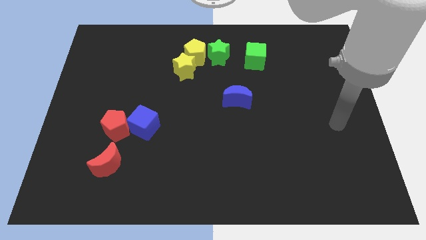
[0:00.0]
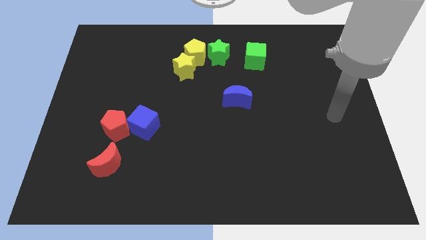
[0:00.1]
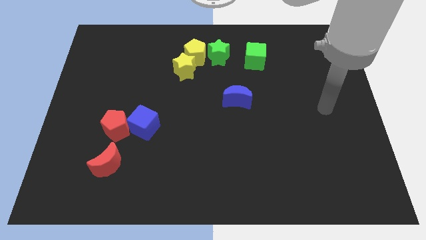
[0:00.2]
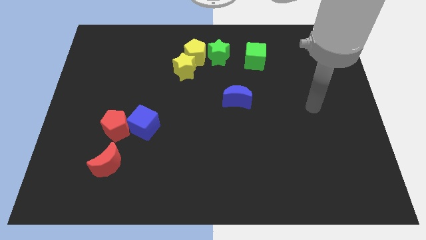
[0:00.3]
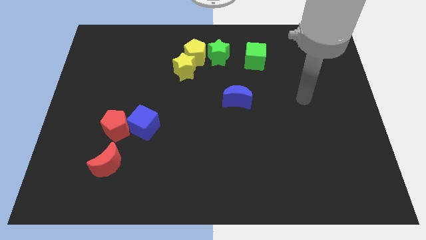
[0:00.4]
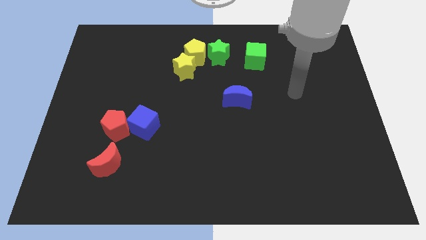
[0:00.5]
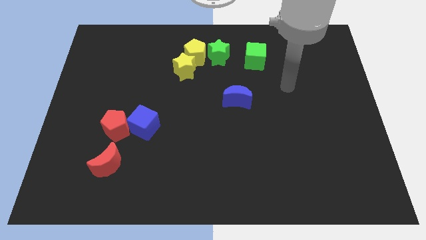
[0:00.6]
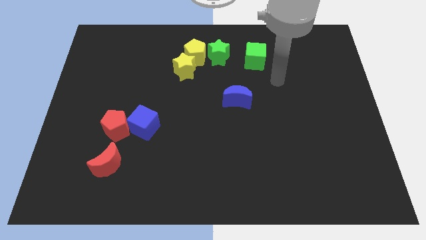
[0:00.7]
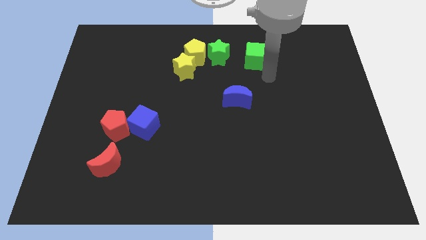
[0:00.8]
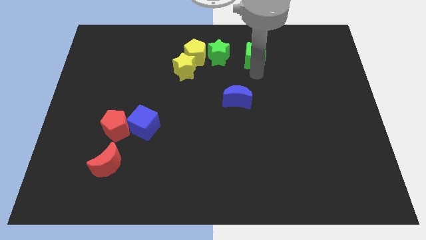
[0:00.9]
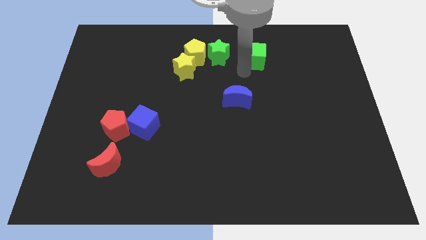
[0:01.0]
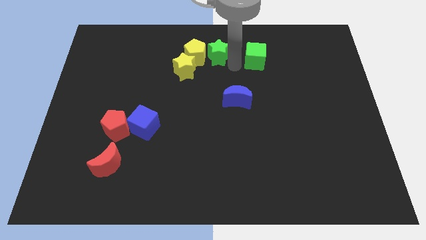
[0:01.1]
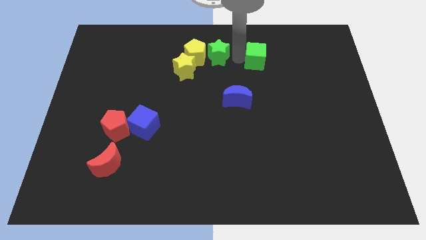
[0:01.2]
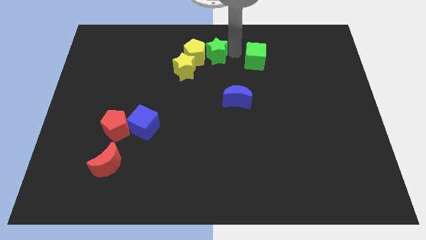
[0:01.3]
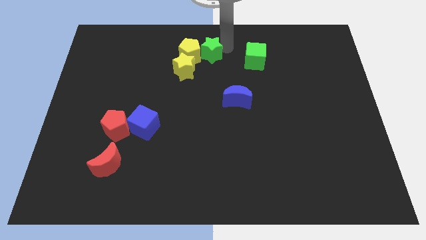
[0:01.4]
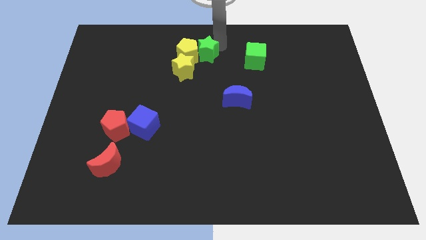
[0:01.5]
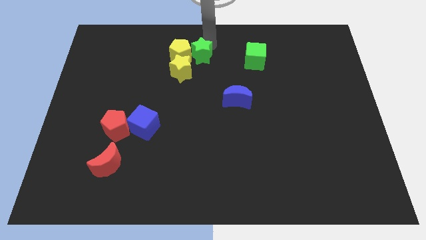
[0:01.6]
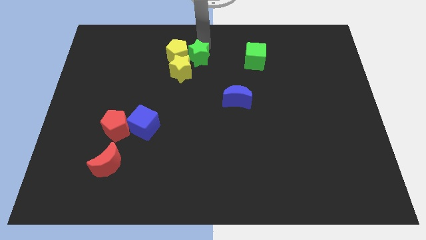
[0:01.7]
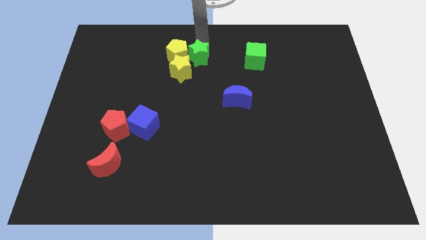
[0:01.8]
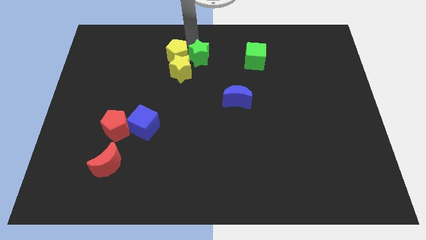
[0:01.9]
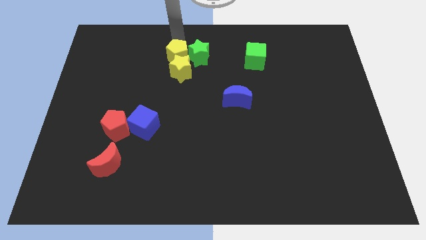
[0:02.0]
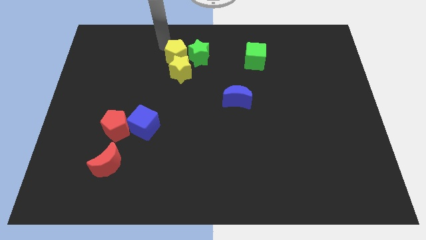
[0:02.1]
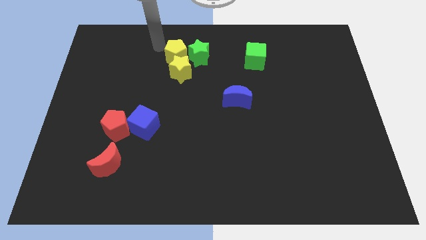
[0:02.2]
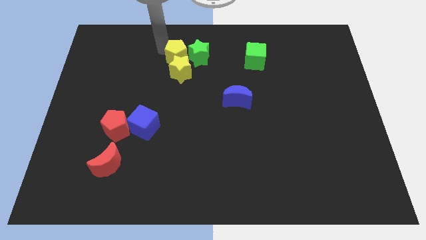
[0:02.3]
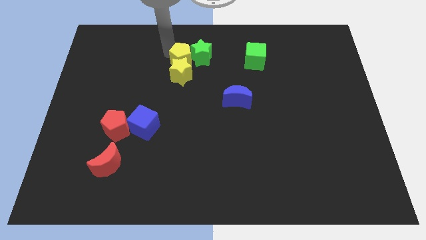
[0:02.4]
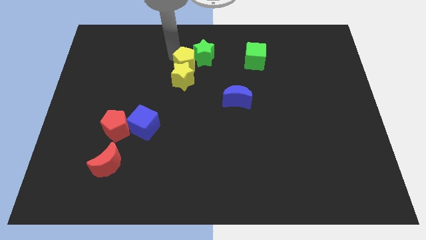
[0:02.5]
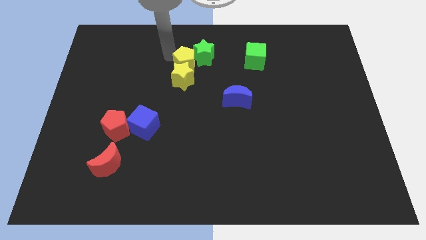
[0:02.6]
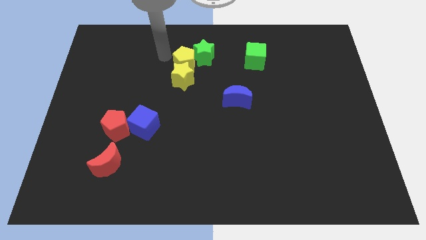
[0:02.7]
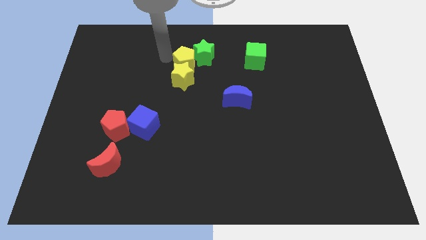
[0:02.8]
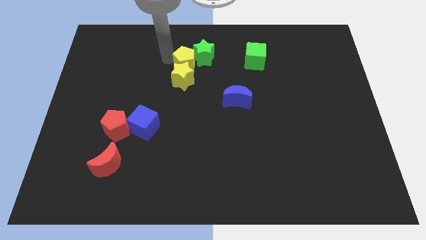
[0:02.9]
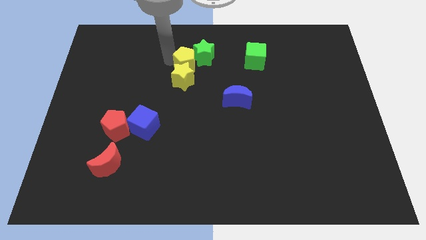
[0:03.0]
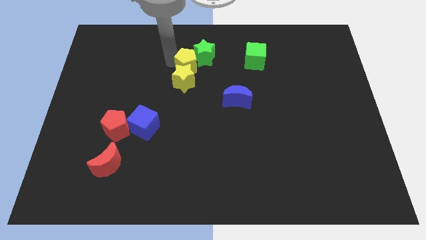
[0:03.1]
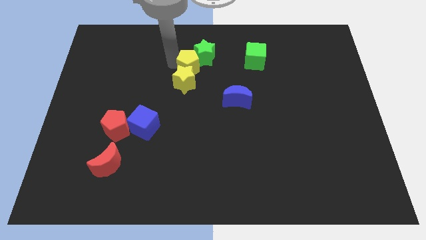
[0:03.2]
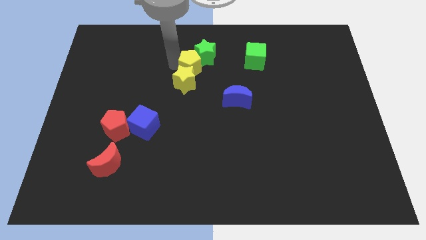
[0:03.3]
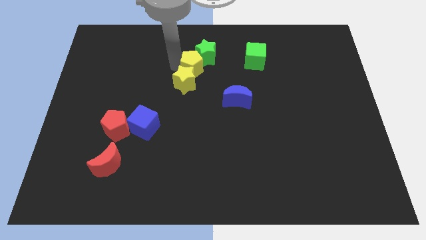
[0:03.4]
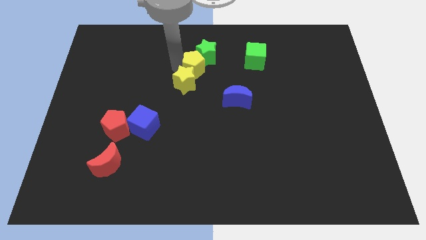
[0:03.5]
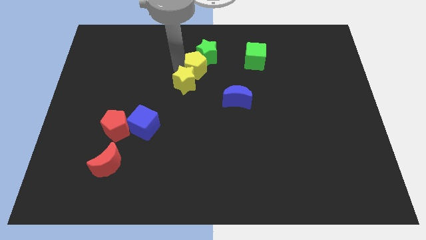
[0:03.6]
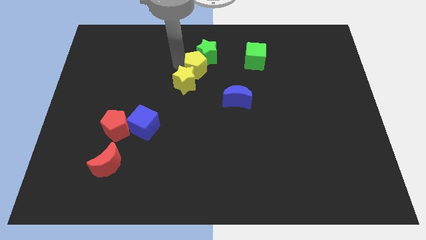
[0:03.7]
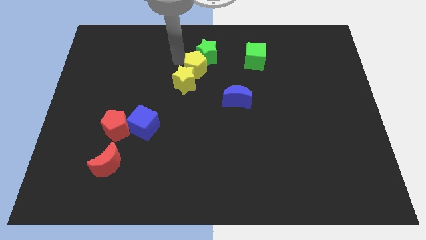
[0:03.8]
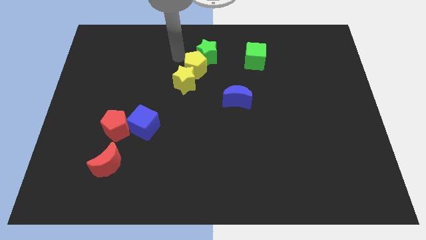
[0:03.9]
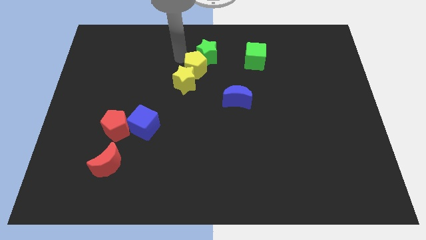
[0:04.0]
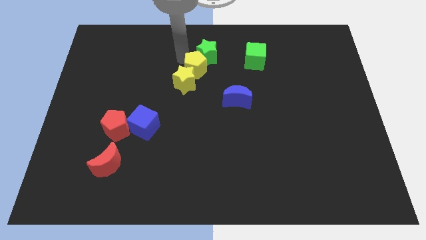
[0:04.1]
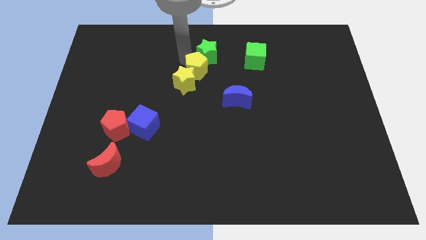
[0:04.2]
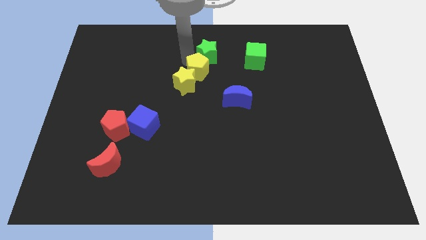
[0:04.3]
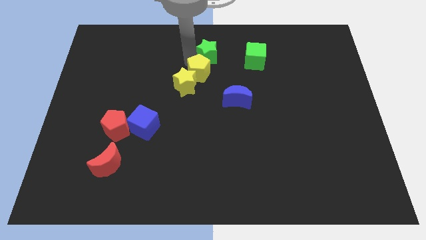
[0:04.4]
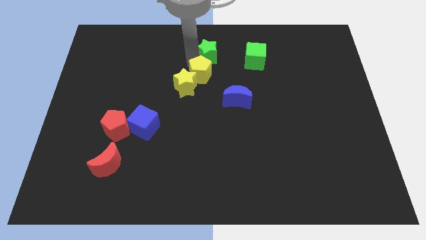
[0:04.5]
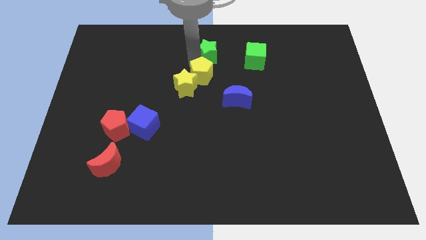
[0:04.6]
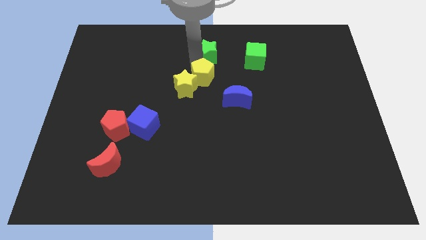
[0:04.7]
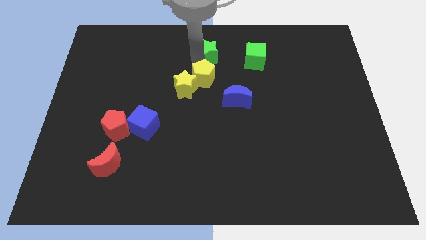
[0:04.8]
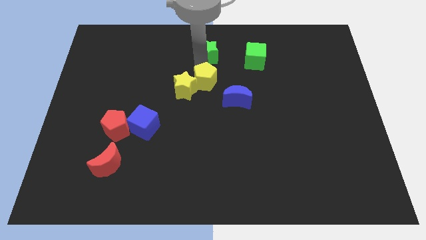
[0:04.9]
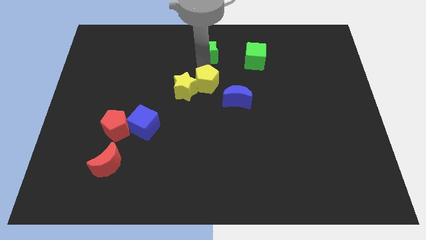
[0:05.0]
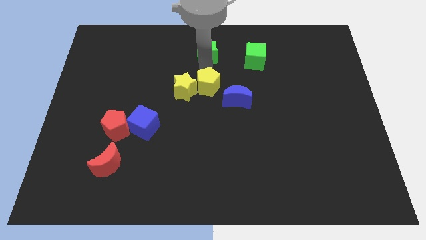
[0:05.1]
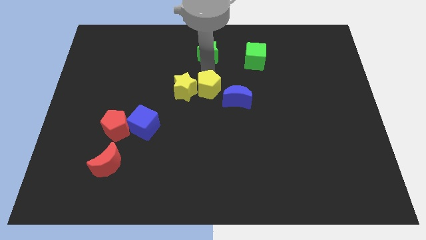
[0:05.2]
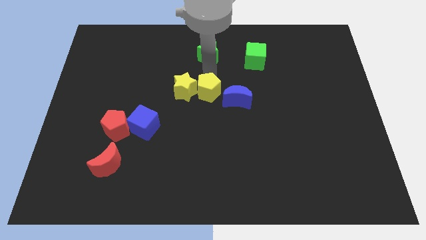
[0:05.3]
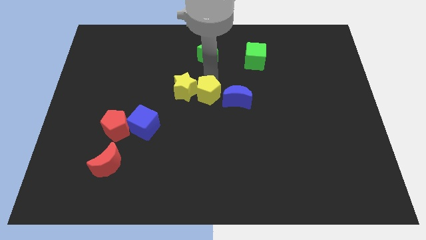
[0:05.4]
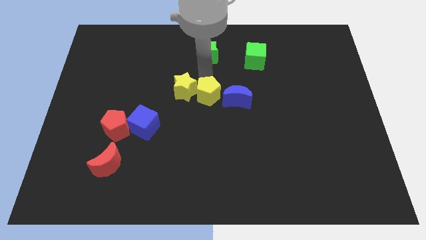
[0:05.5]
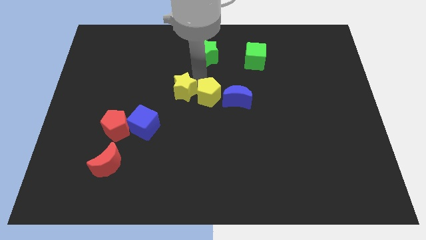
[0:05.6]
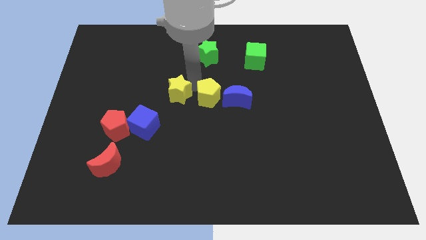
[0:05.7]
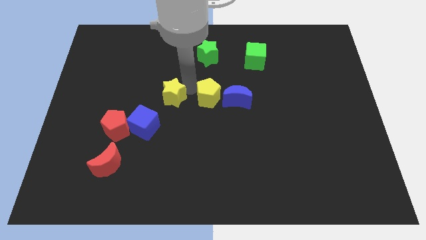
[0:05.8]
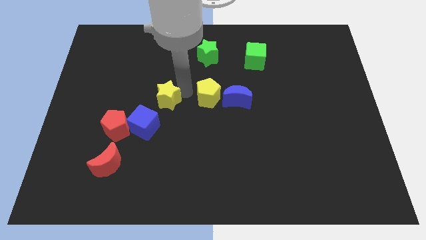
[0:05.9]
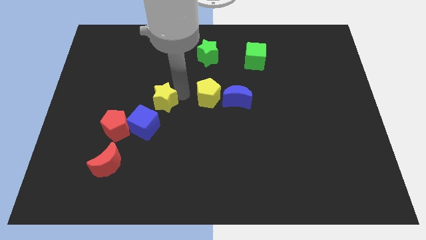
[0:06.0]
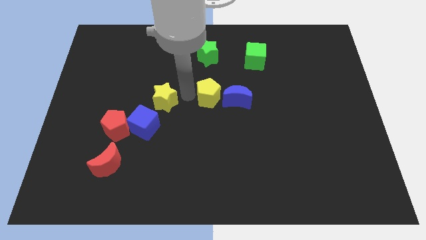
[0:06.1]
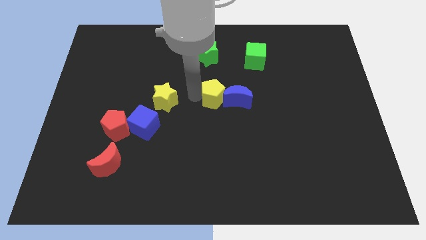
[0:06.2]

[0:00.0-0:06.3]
push the yellow pentagon close to the blue moon

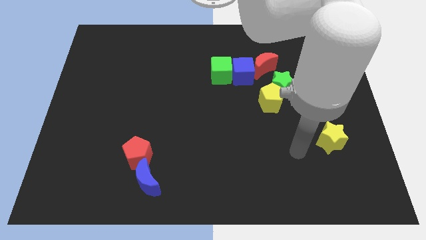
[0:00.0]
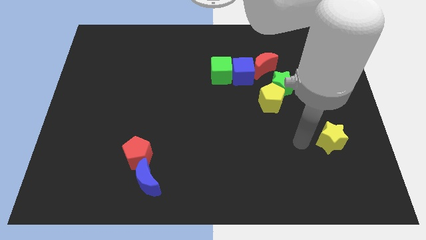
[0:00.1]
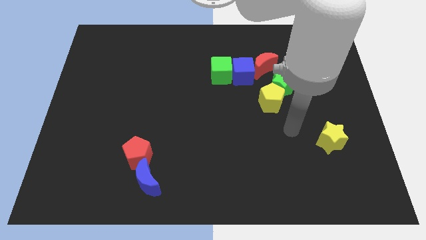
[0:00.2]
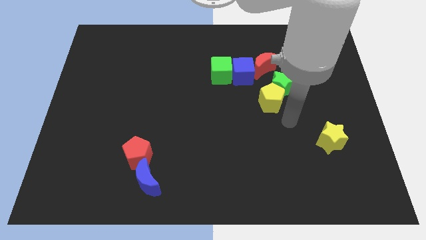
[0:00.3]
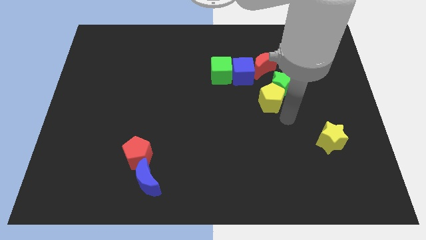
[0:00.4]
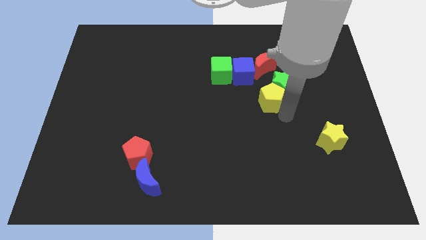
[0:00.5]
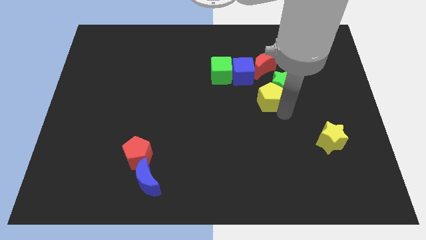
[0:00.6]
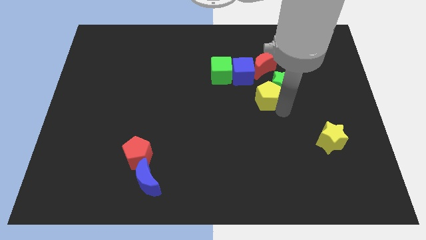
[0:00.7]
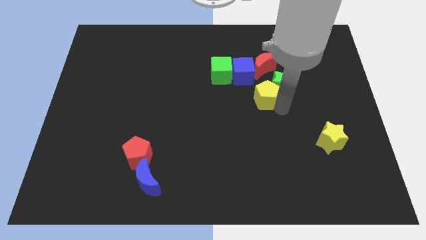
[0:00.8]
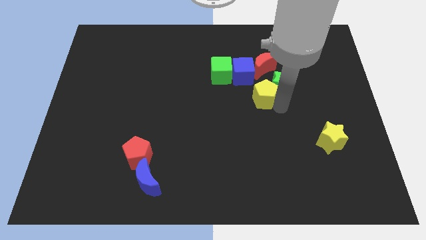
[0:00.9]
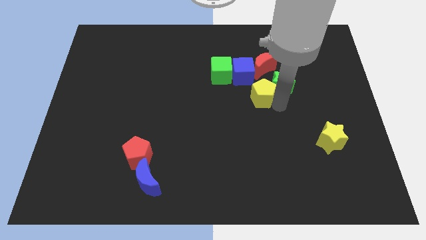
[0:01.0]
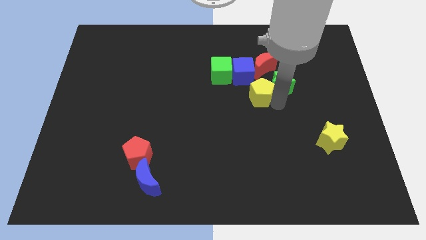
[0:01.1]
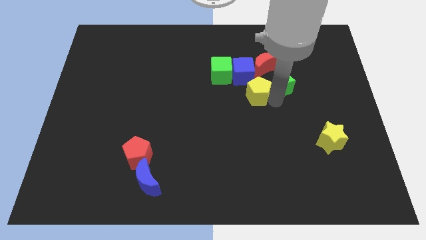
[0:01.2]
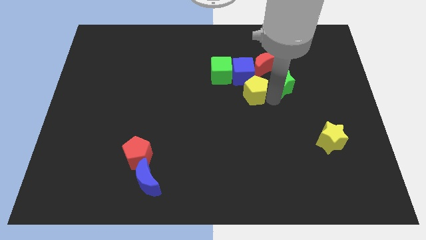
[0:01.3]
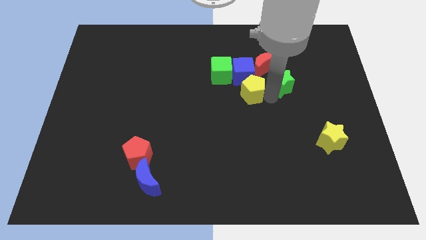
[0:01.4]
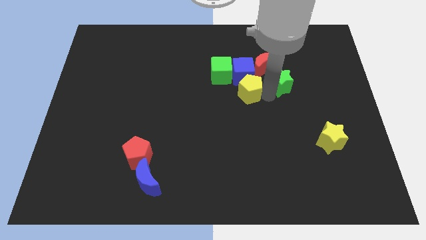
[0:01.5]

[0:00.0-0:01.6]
slide the yellow pentagon to the blue cube

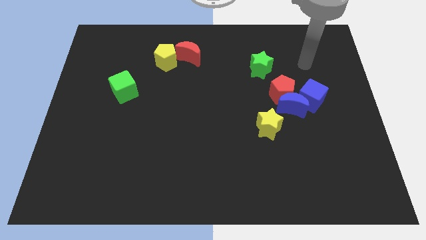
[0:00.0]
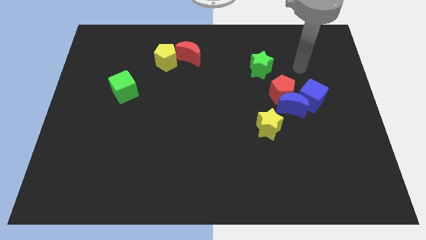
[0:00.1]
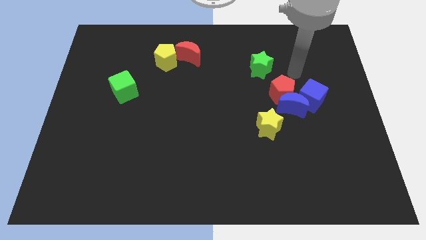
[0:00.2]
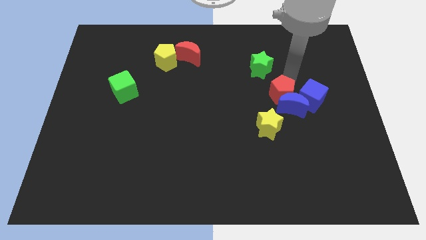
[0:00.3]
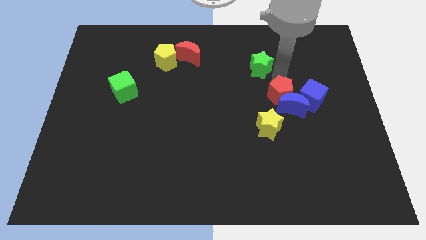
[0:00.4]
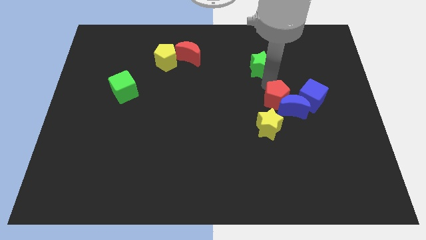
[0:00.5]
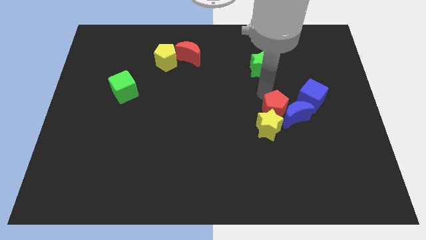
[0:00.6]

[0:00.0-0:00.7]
slide the yellow star to the red pentagon
